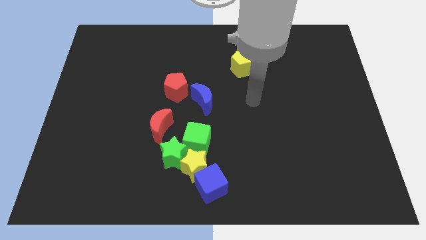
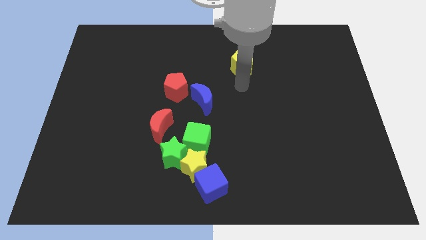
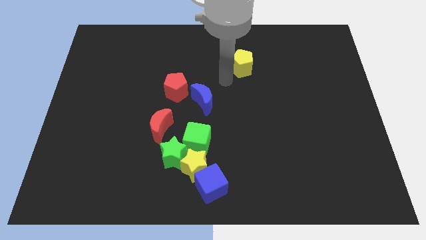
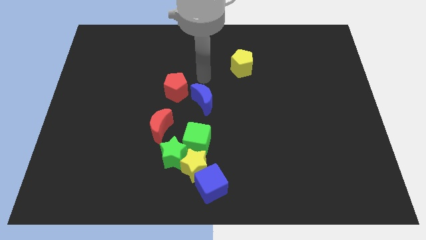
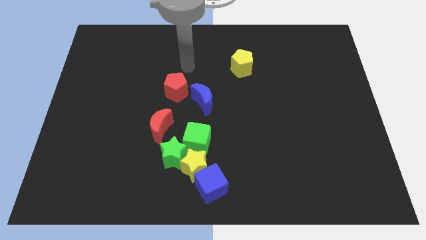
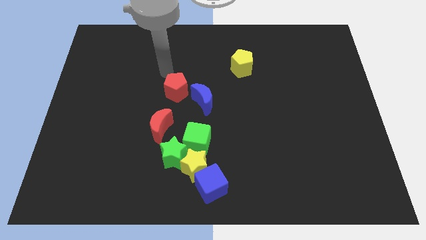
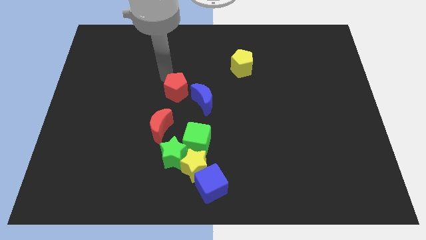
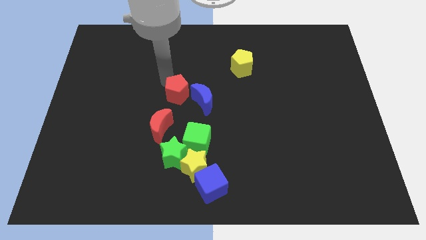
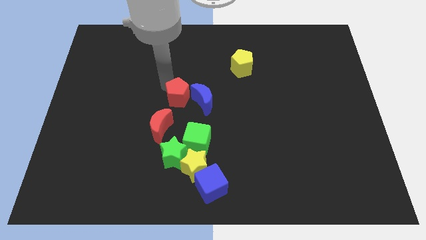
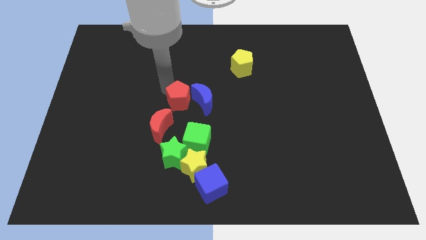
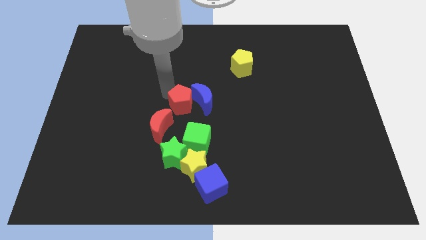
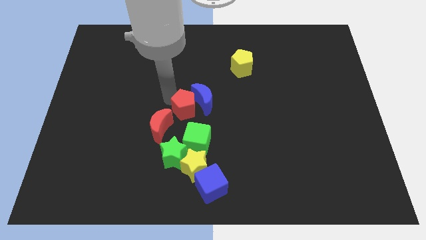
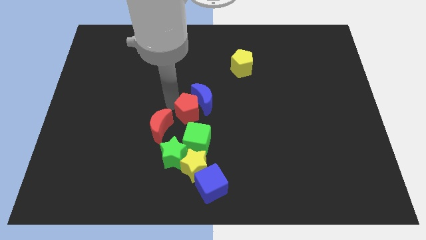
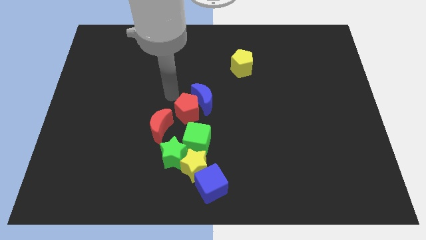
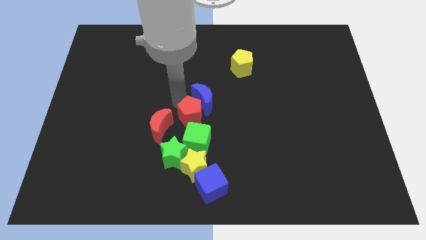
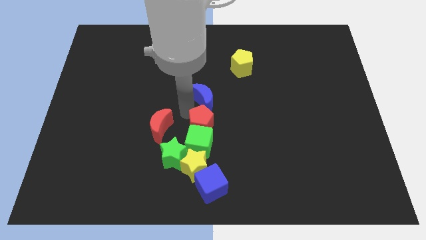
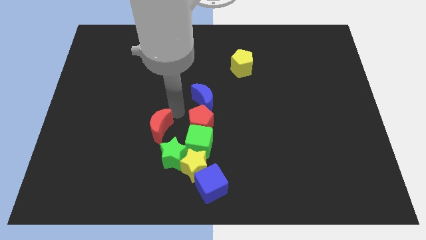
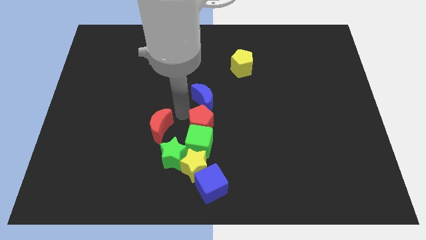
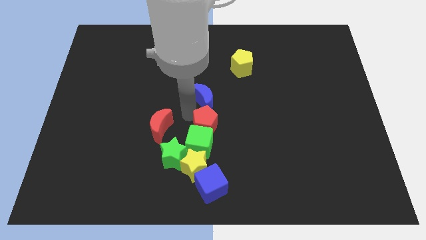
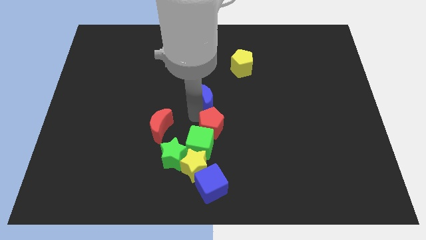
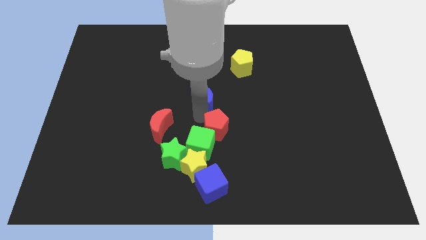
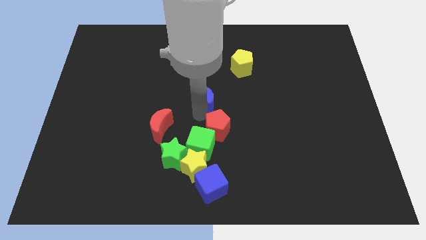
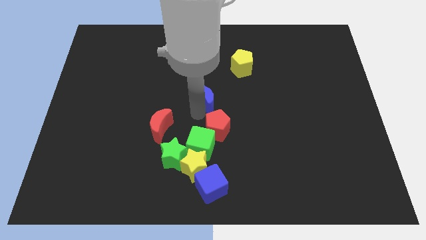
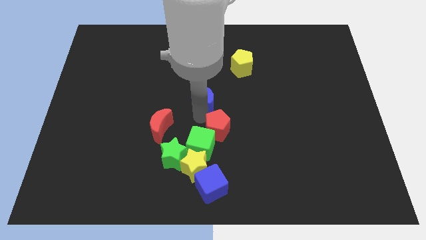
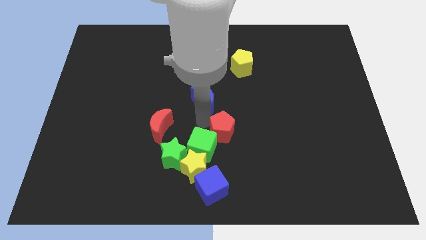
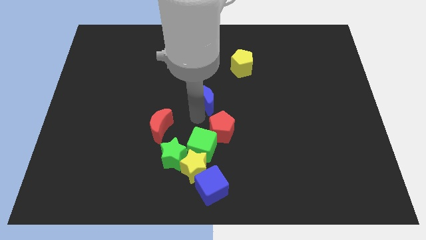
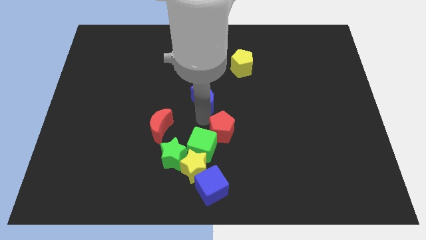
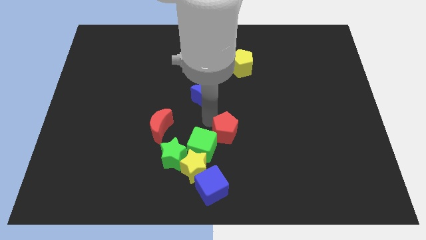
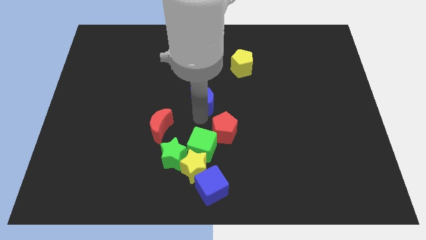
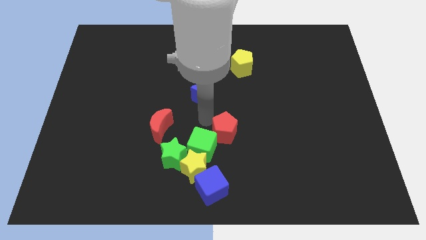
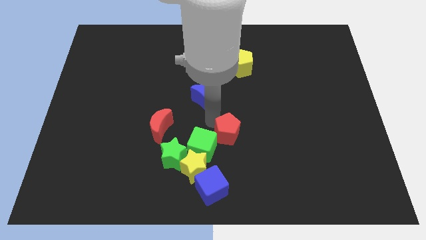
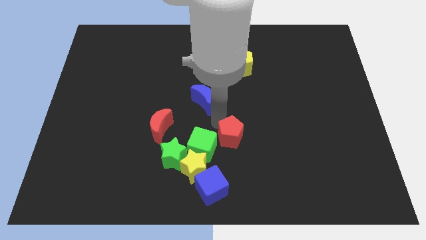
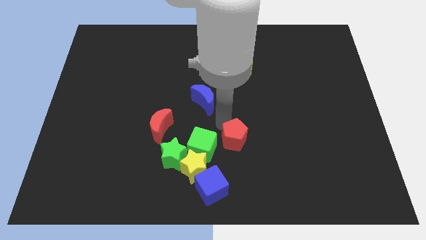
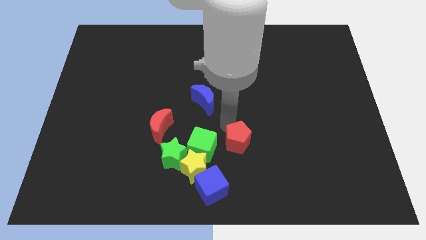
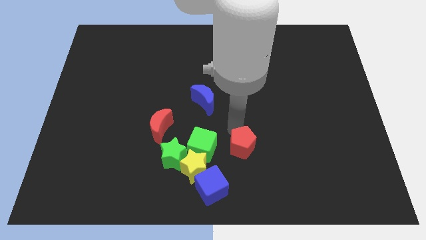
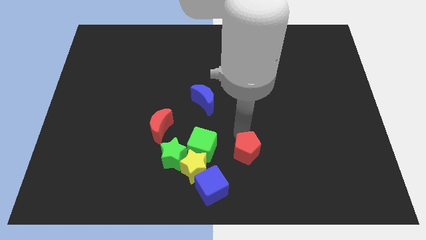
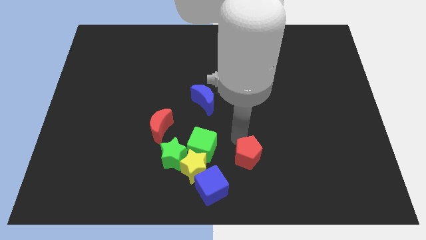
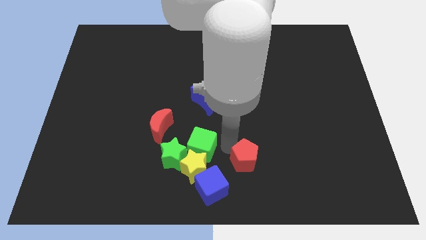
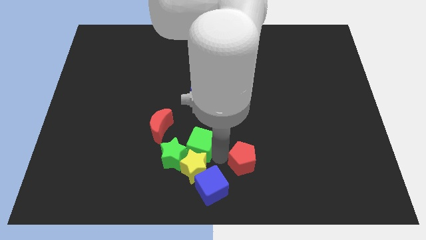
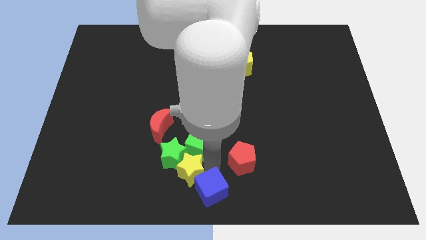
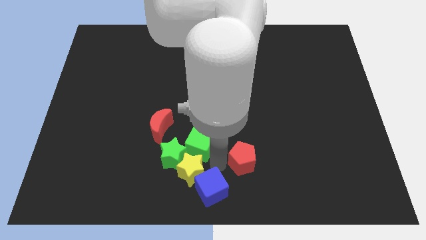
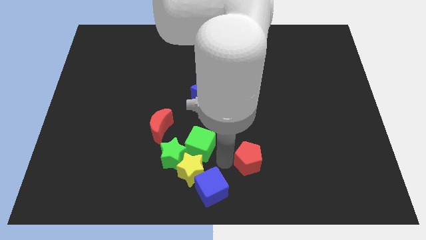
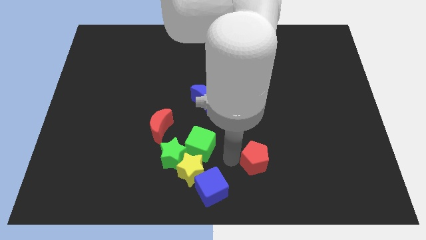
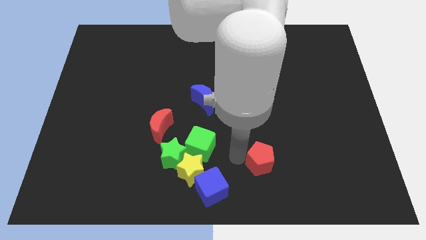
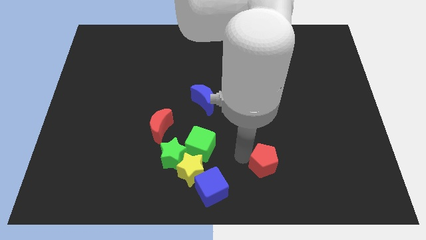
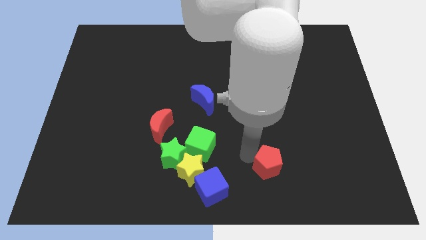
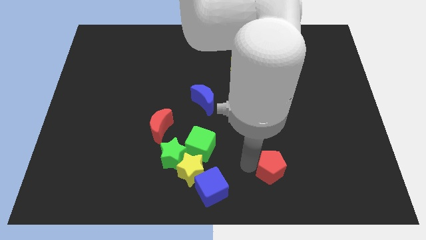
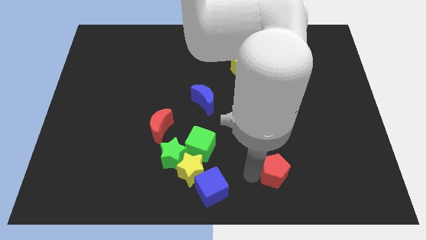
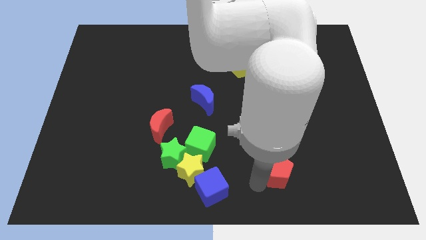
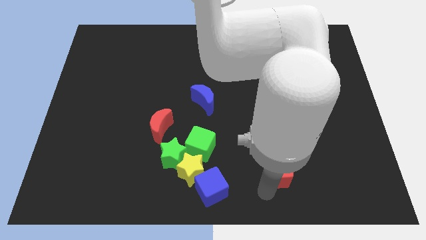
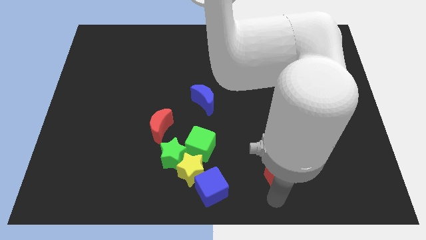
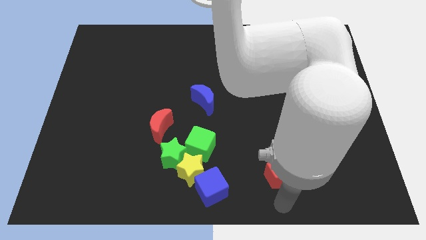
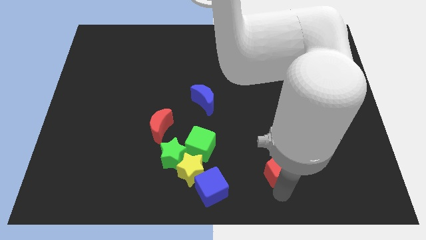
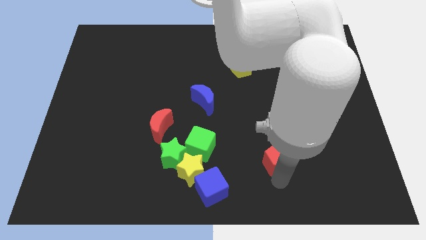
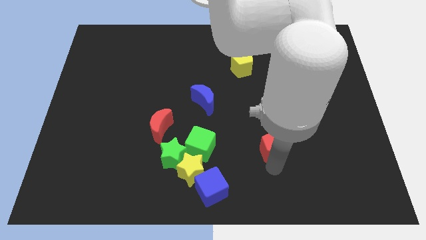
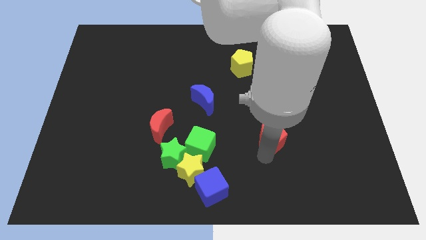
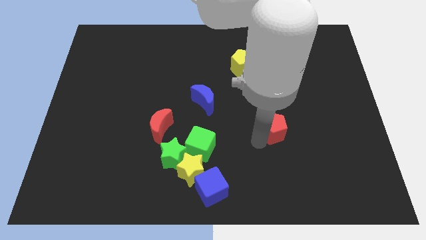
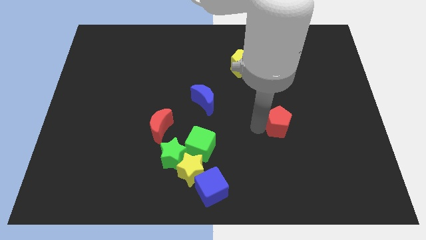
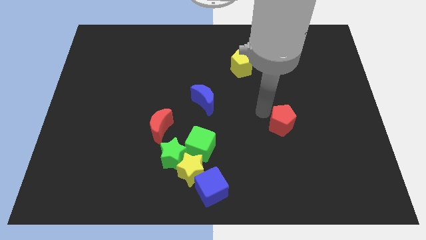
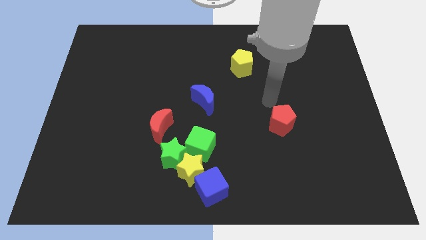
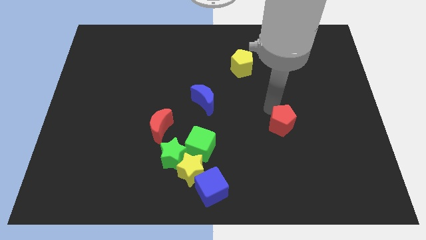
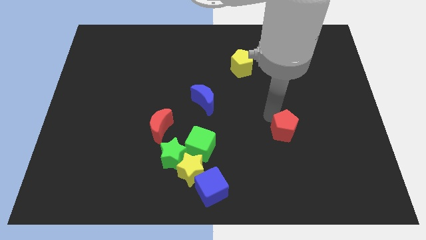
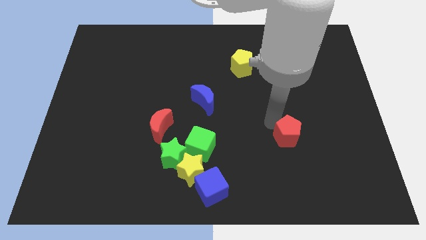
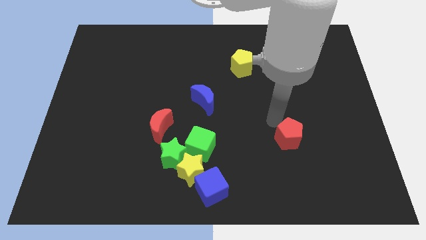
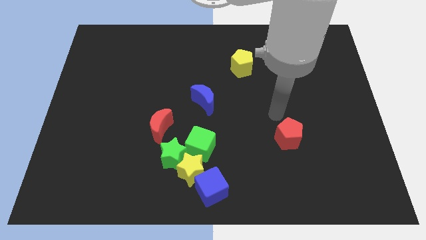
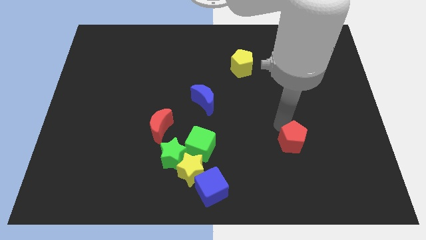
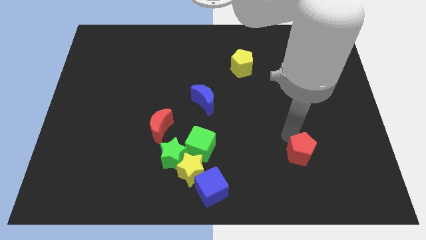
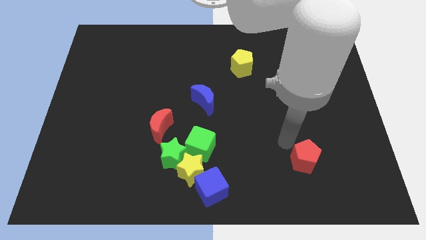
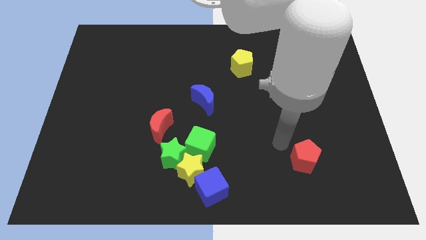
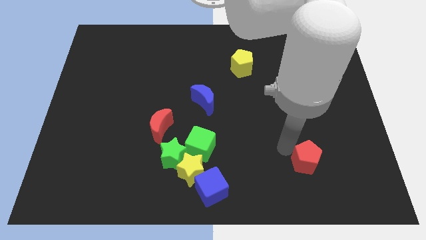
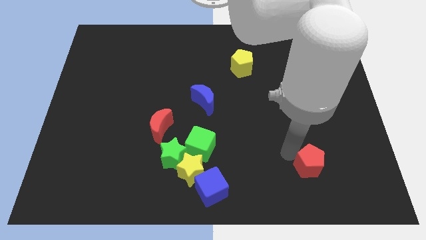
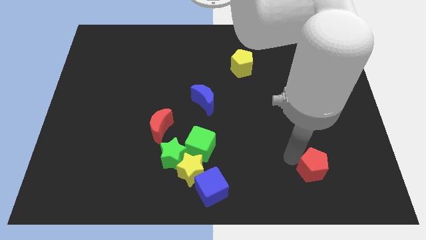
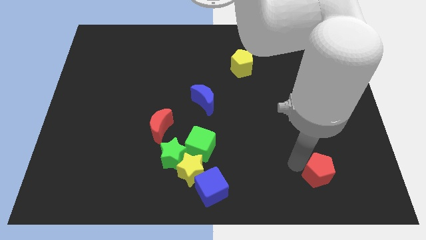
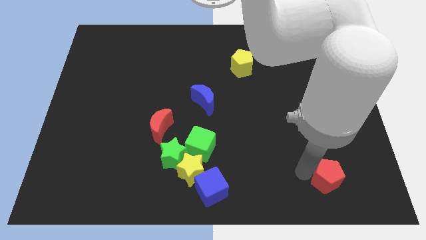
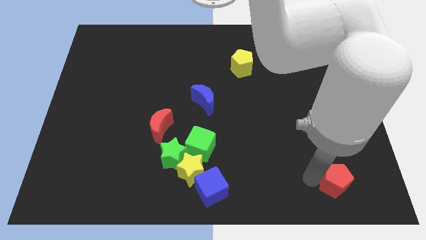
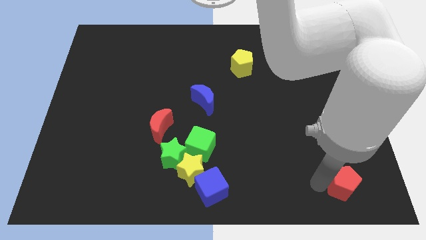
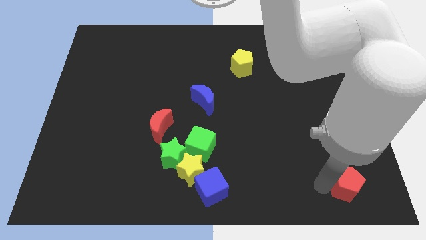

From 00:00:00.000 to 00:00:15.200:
put the red pentagon to the bottom right corner
